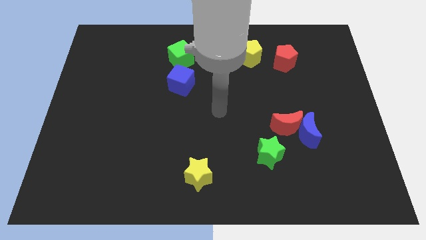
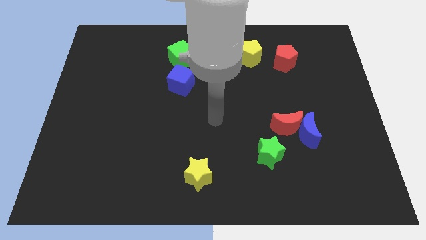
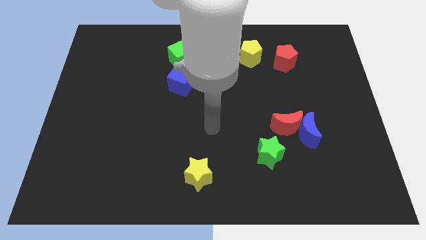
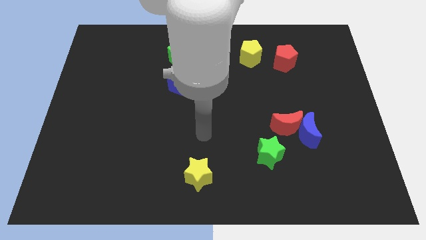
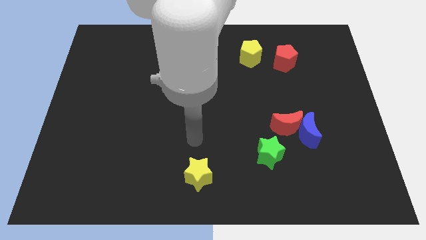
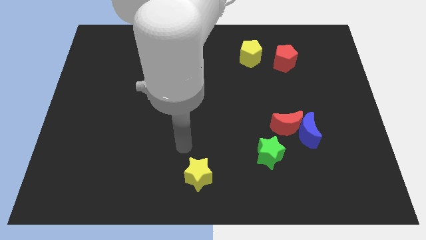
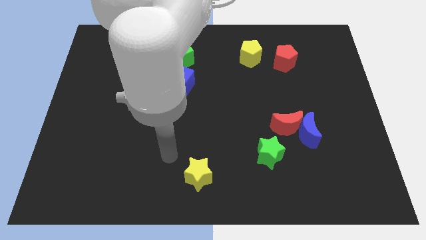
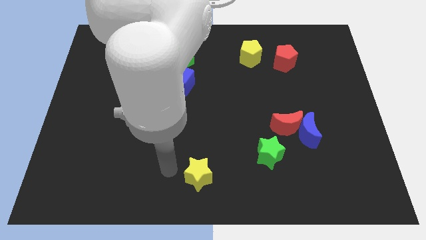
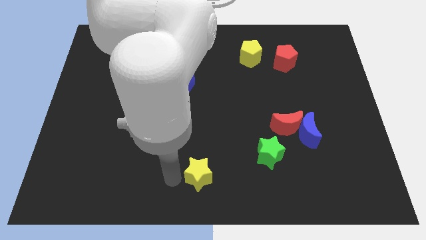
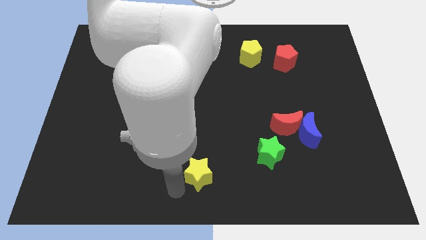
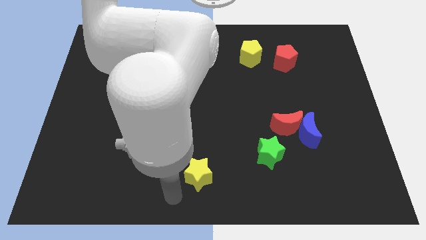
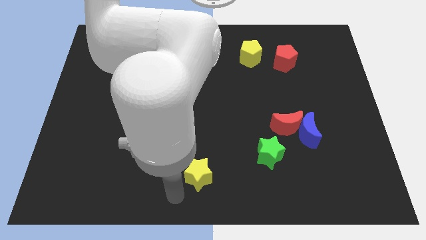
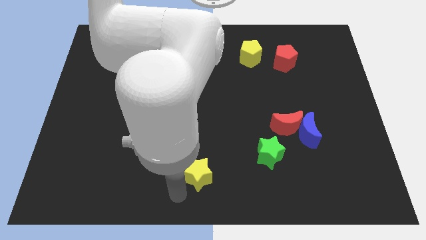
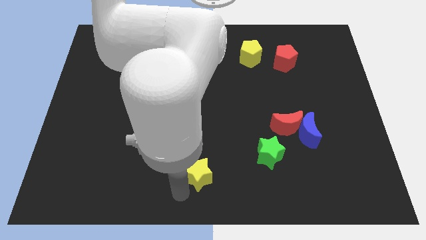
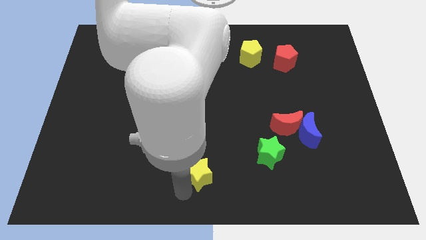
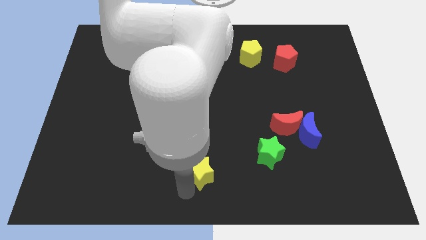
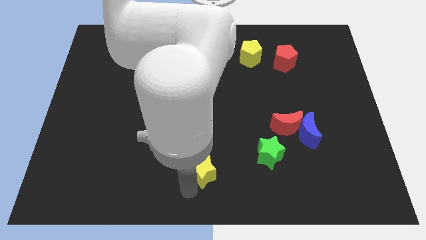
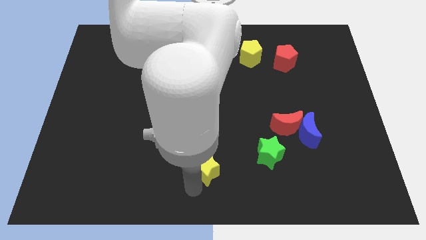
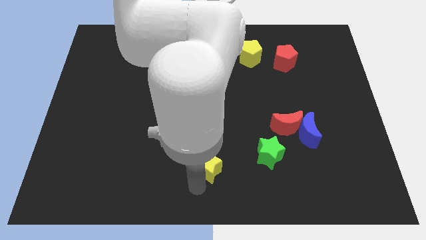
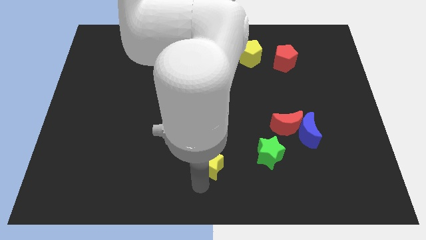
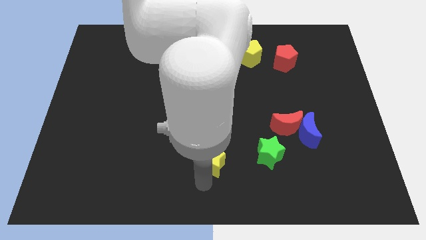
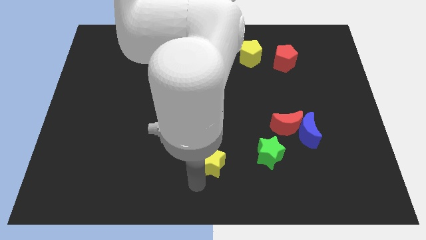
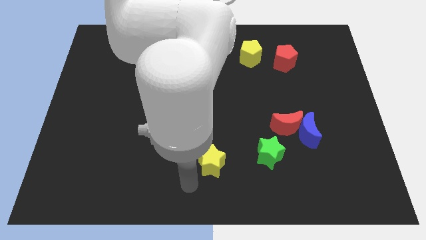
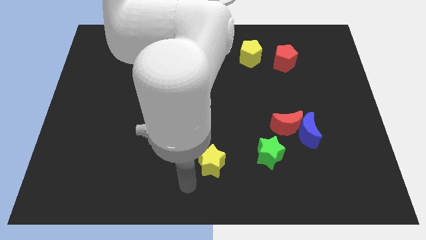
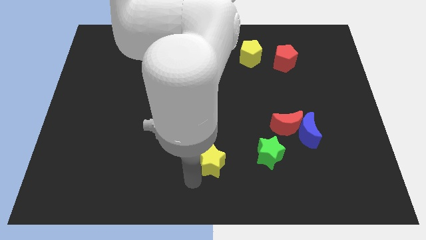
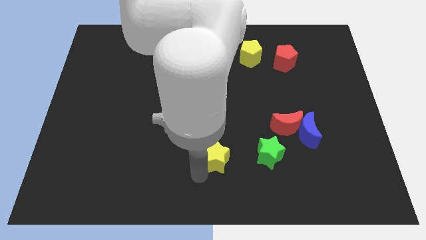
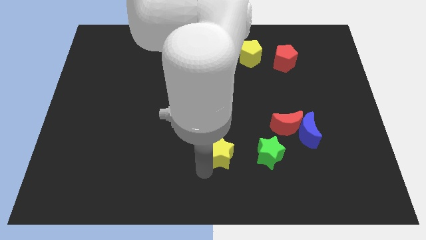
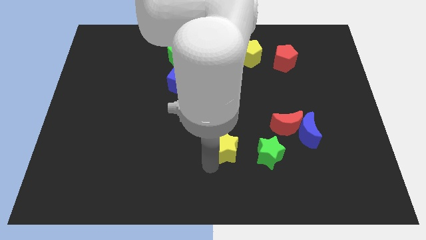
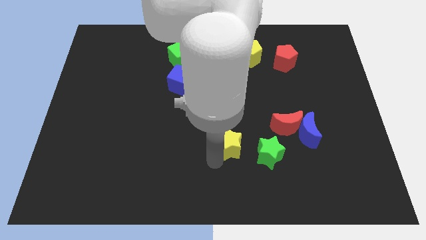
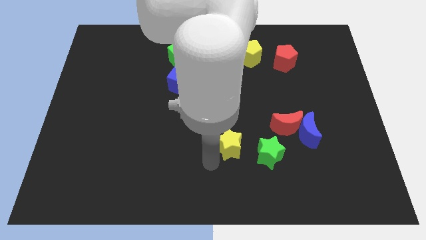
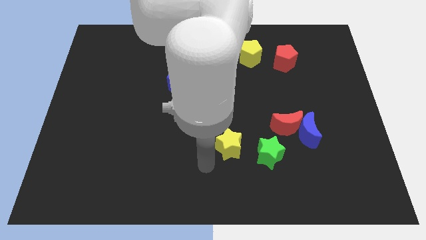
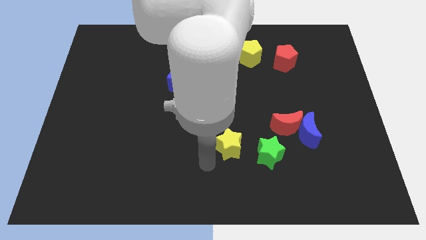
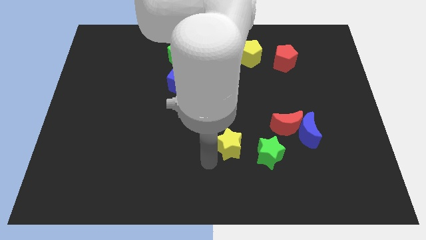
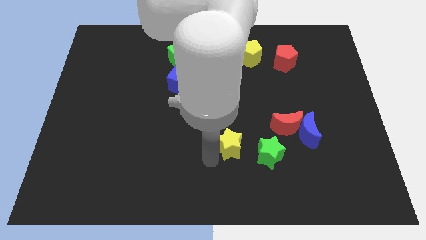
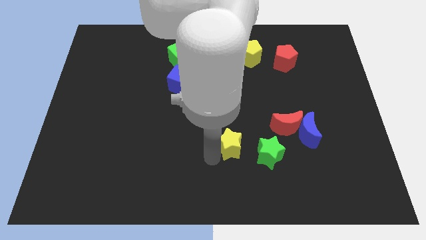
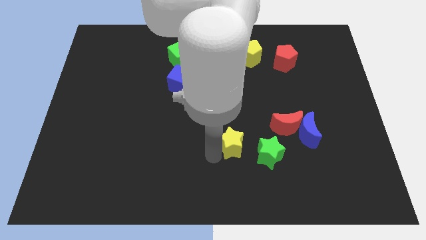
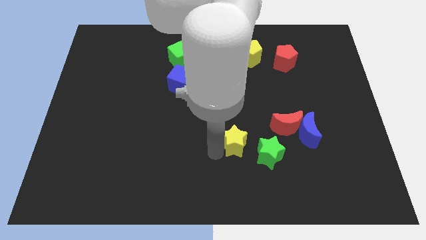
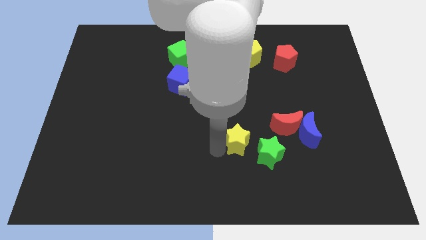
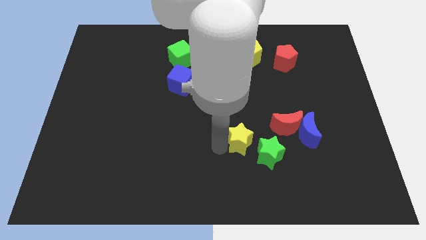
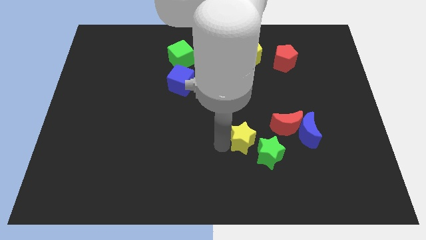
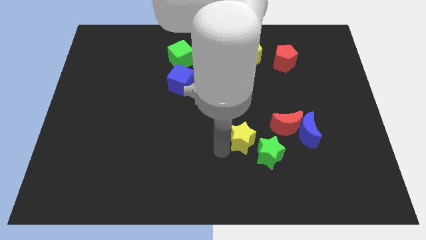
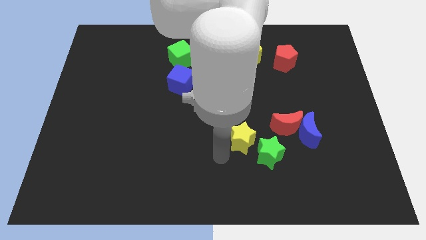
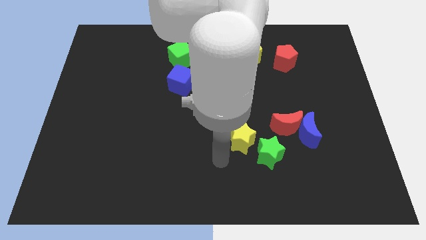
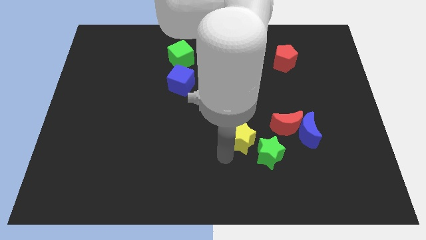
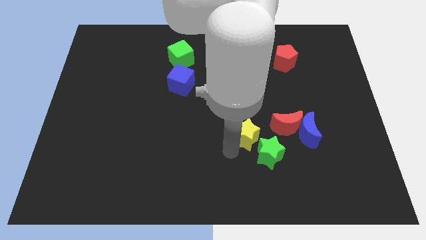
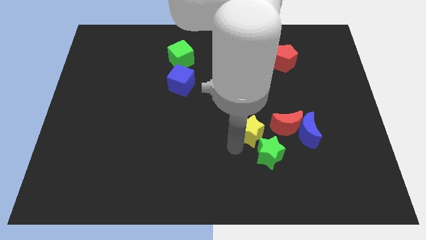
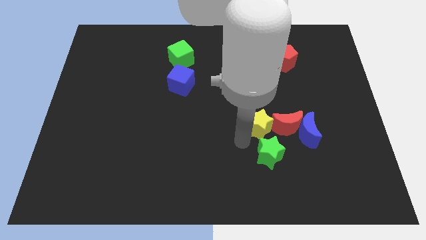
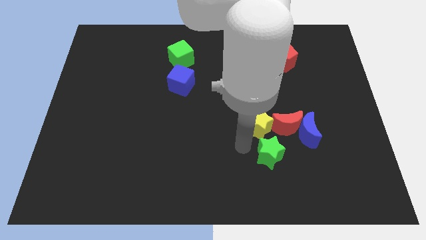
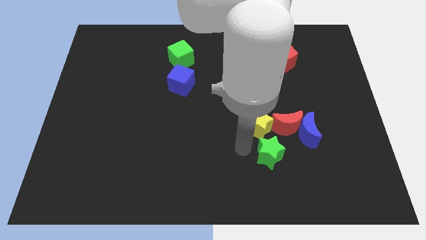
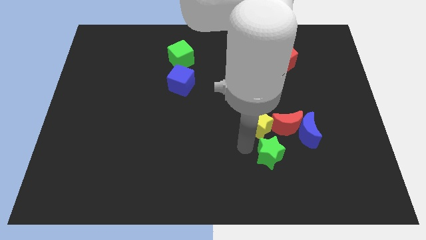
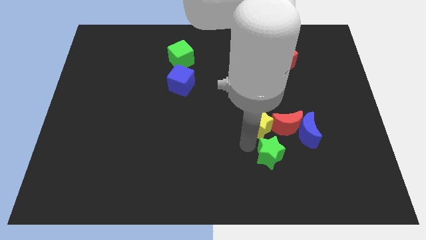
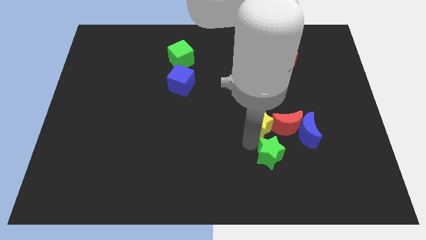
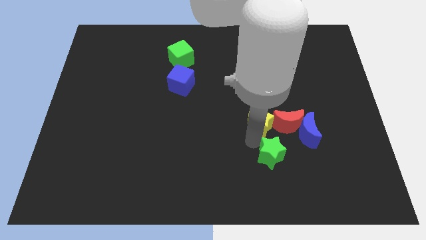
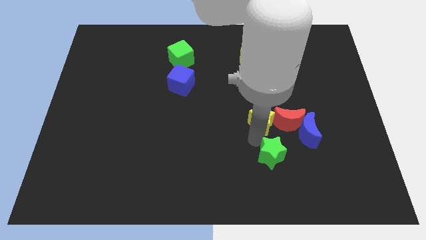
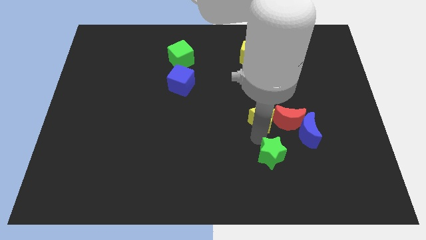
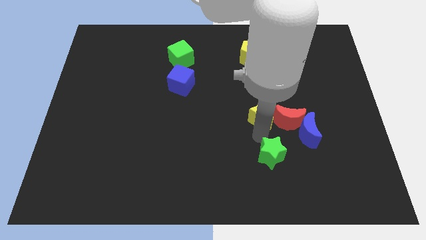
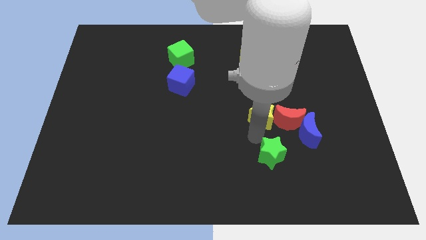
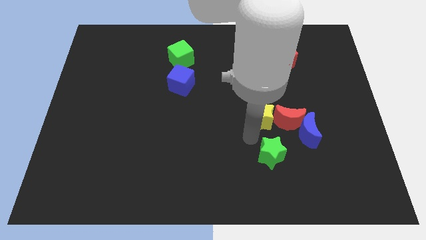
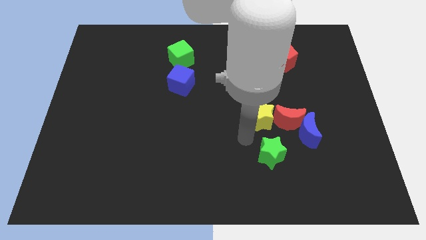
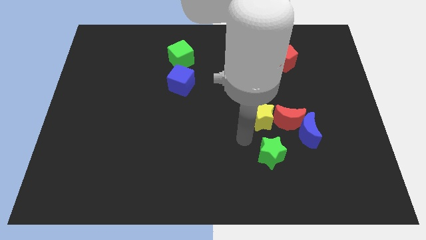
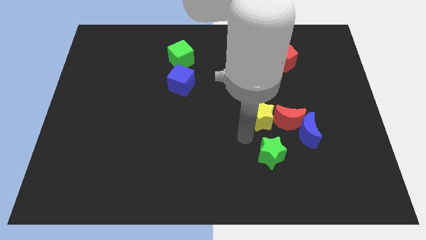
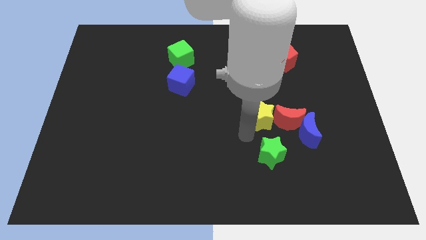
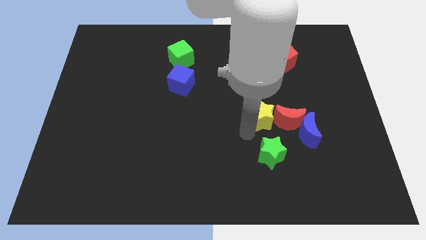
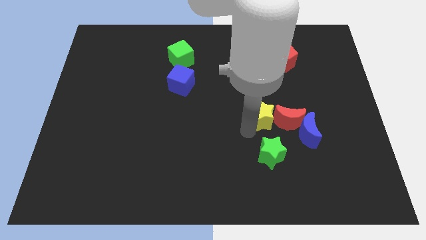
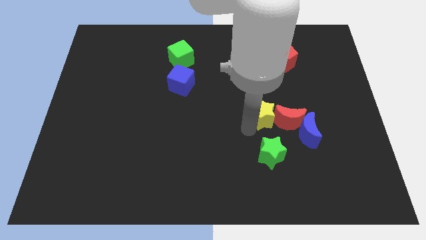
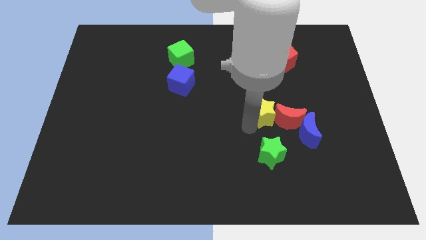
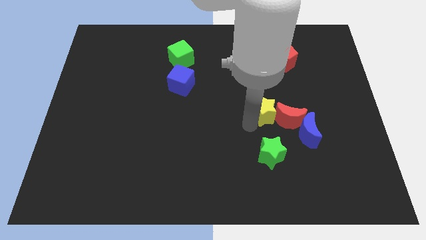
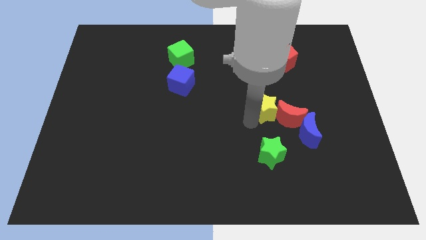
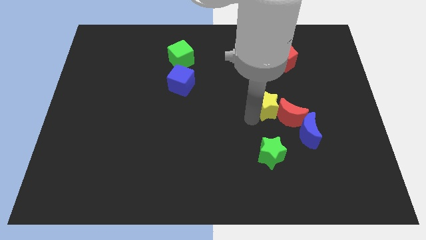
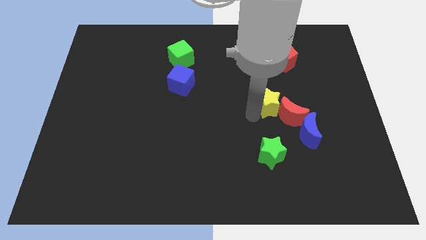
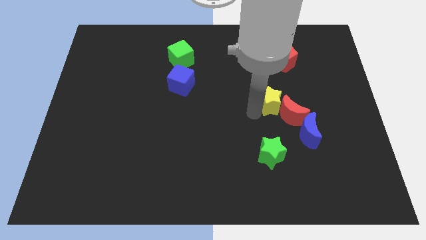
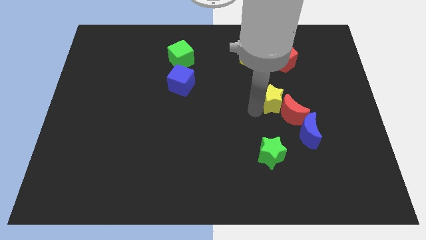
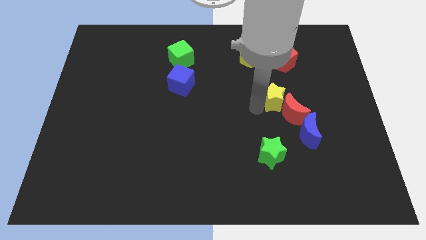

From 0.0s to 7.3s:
push the yellow star to the bottom of the red pentagon

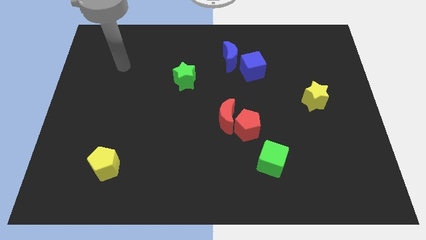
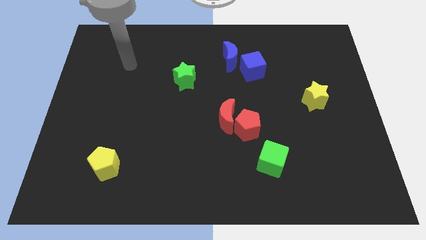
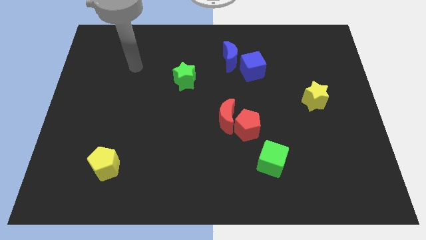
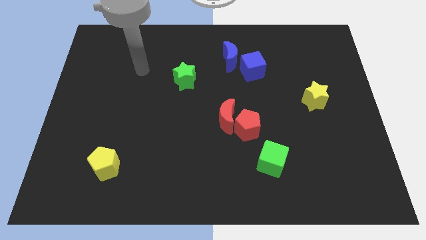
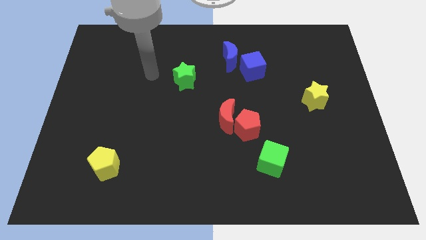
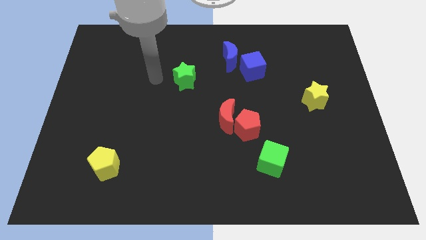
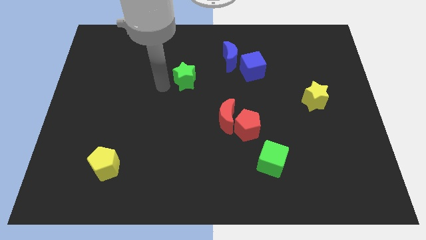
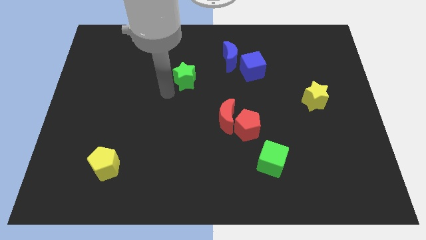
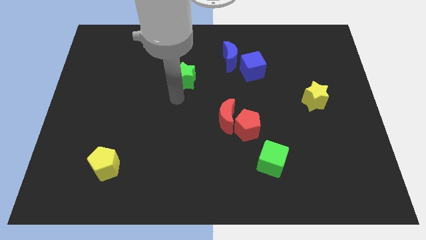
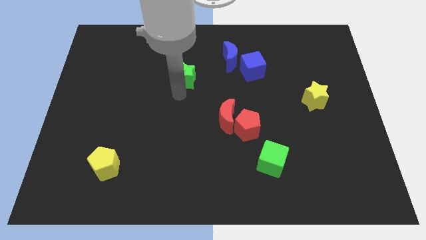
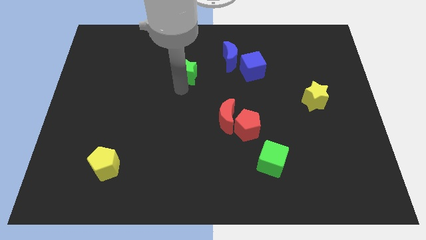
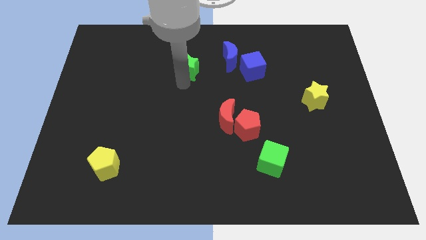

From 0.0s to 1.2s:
slide the green star to the left side of the blue moon
